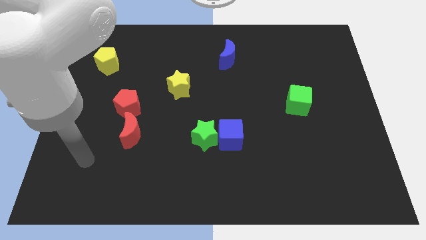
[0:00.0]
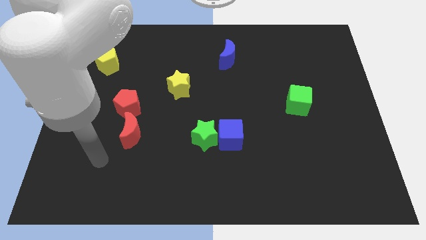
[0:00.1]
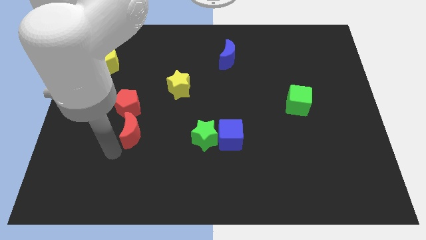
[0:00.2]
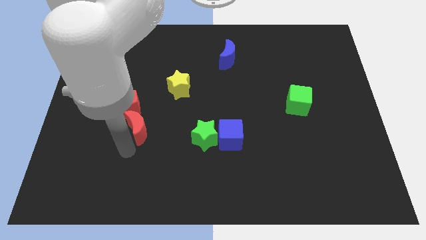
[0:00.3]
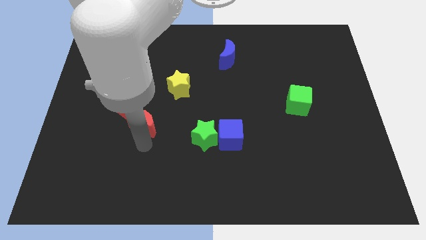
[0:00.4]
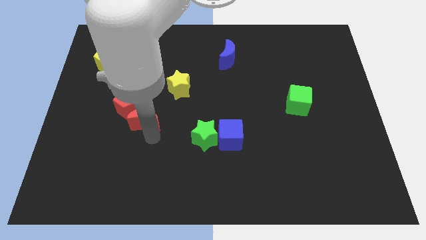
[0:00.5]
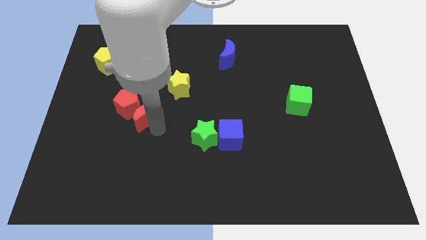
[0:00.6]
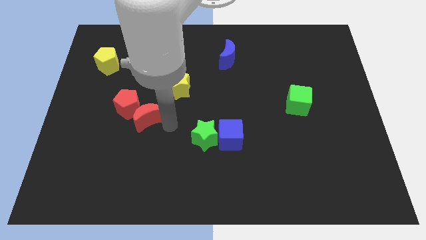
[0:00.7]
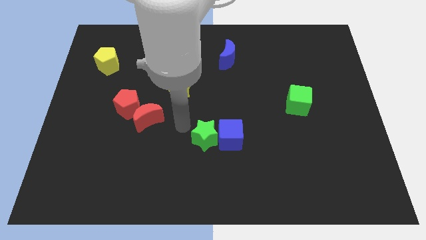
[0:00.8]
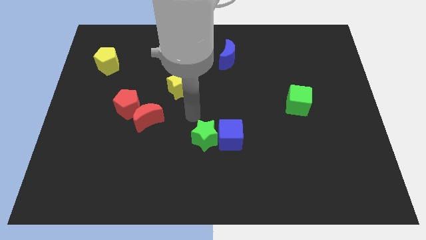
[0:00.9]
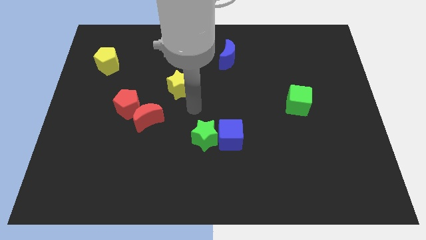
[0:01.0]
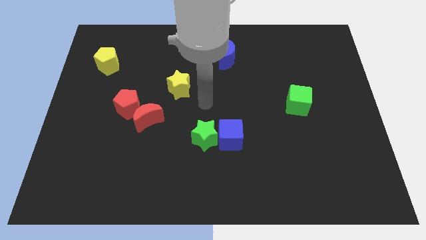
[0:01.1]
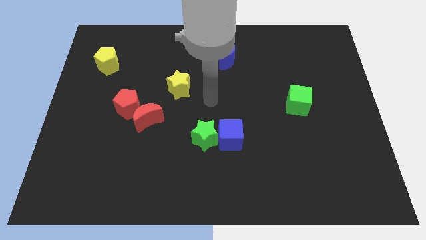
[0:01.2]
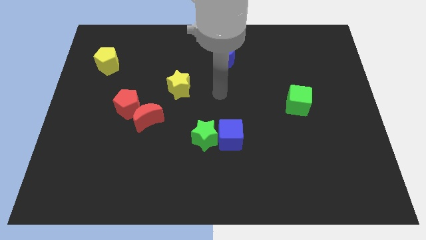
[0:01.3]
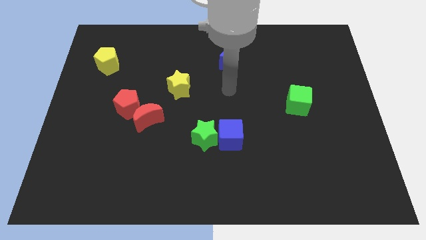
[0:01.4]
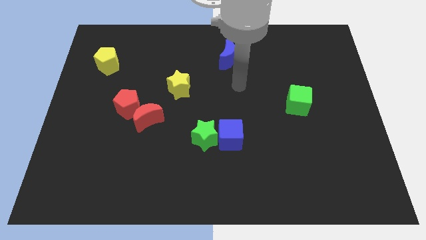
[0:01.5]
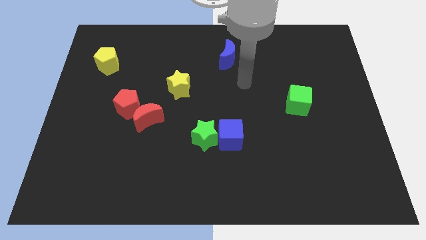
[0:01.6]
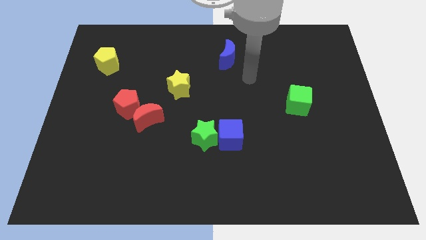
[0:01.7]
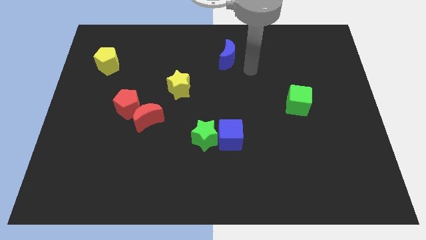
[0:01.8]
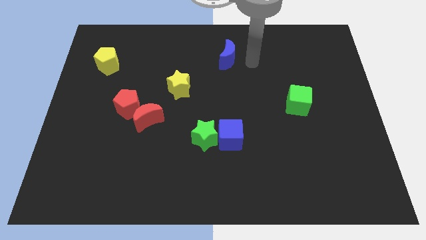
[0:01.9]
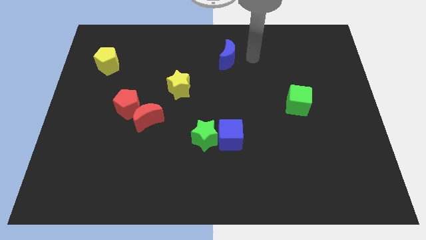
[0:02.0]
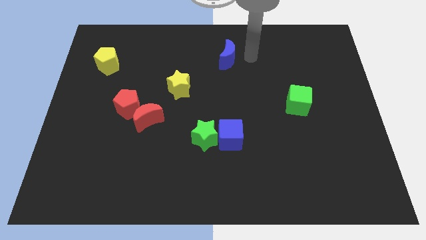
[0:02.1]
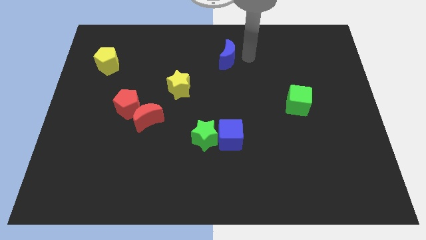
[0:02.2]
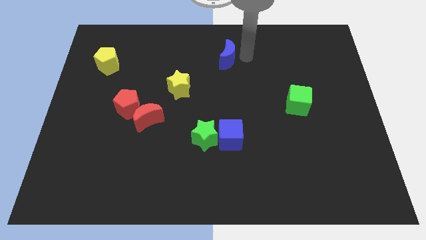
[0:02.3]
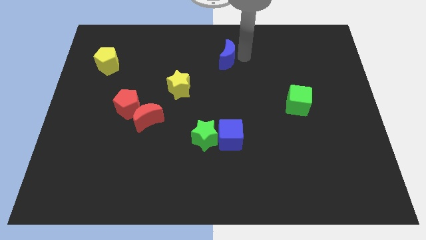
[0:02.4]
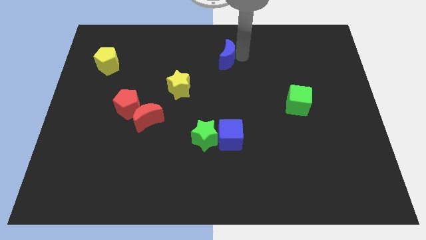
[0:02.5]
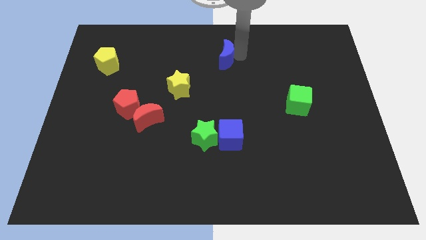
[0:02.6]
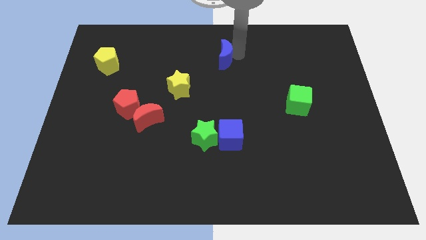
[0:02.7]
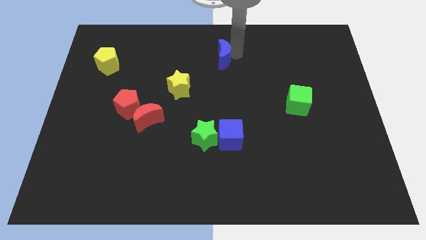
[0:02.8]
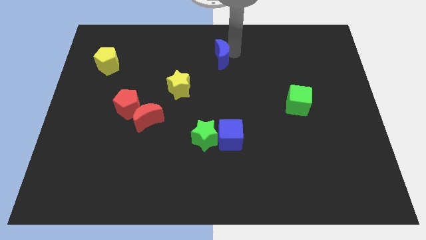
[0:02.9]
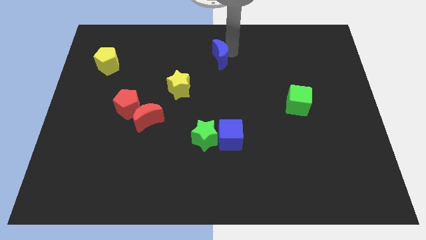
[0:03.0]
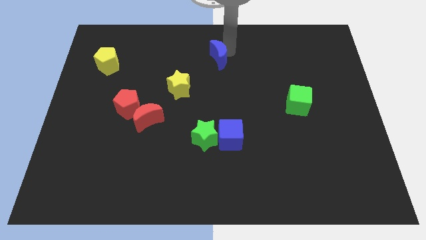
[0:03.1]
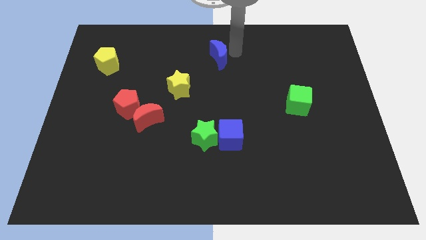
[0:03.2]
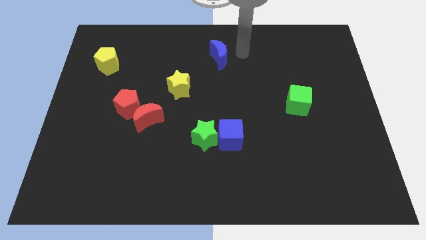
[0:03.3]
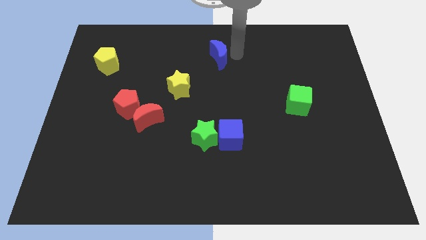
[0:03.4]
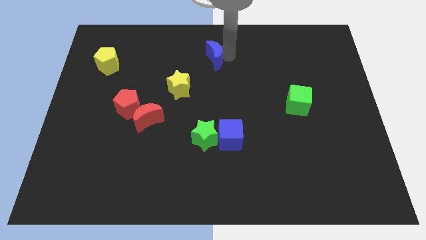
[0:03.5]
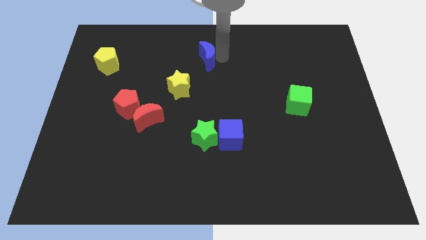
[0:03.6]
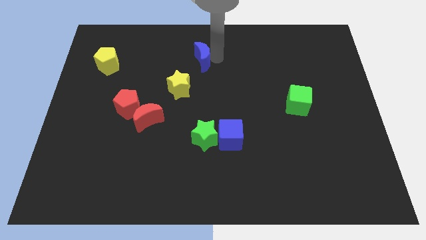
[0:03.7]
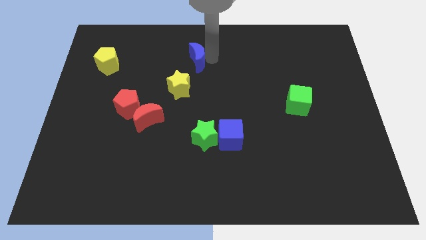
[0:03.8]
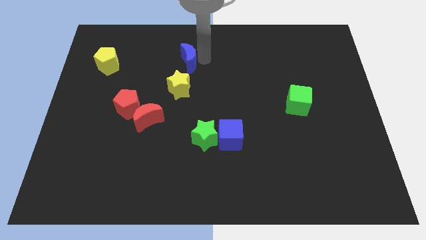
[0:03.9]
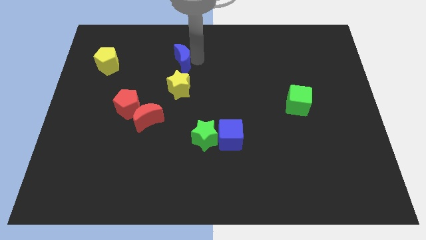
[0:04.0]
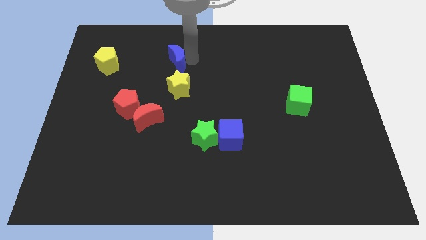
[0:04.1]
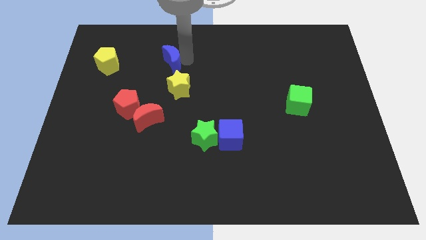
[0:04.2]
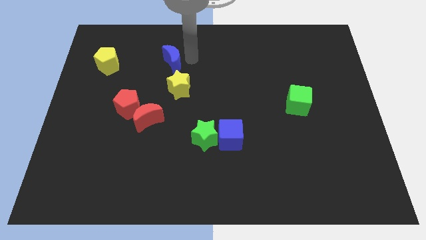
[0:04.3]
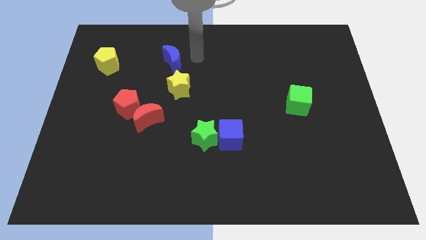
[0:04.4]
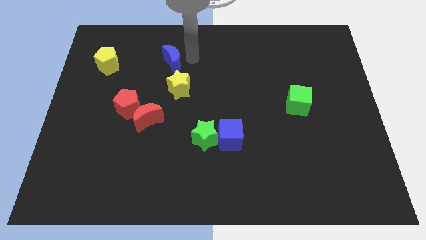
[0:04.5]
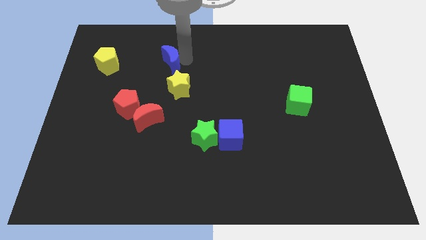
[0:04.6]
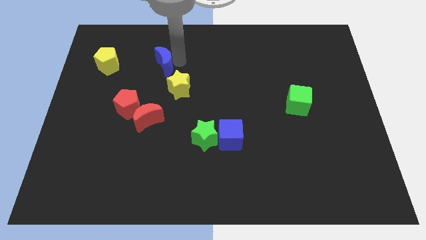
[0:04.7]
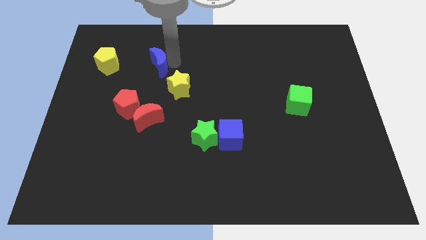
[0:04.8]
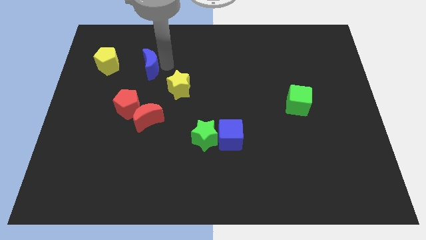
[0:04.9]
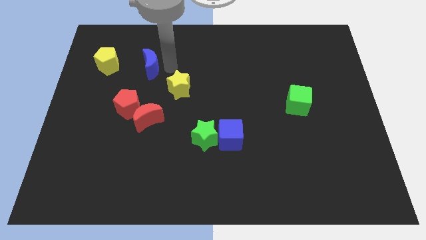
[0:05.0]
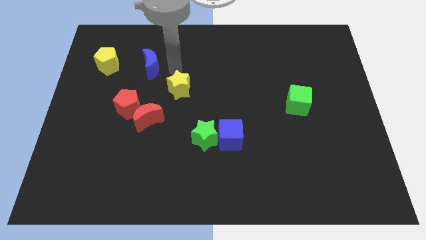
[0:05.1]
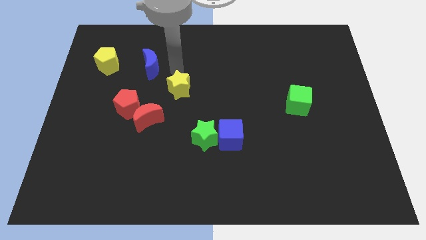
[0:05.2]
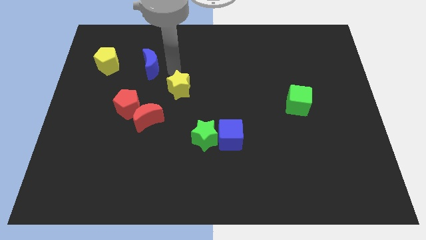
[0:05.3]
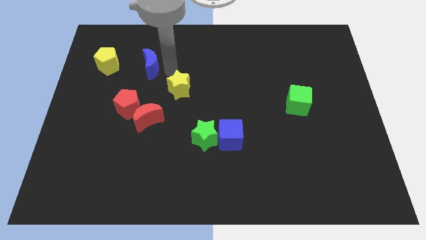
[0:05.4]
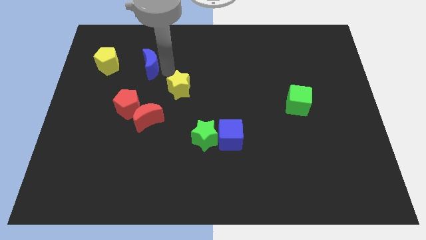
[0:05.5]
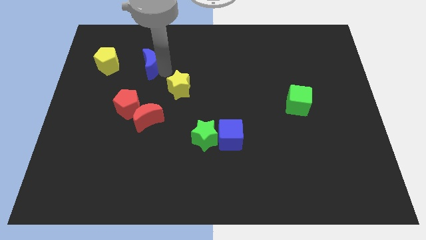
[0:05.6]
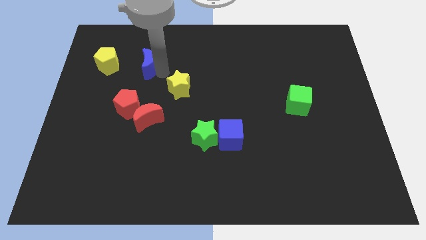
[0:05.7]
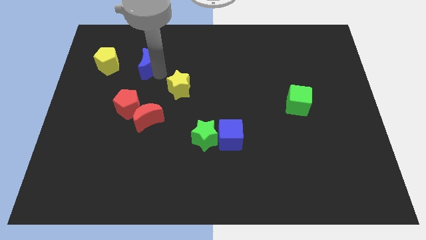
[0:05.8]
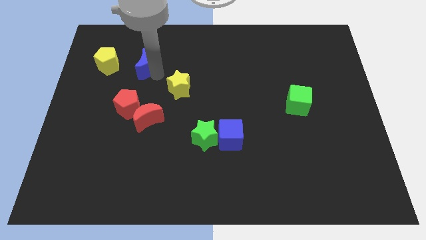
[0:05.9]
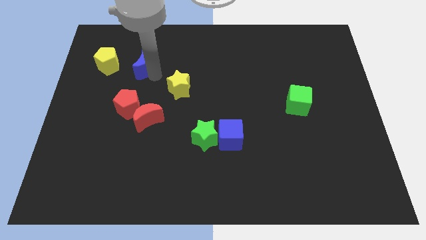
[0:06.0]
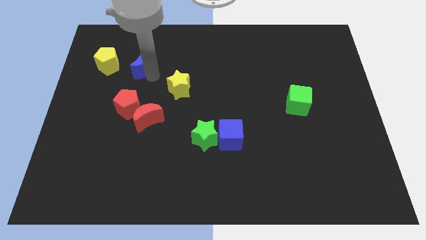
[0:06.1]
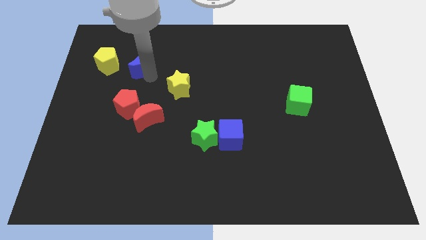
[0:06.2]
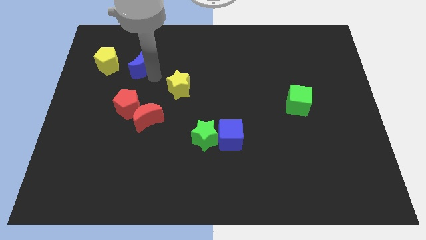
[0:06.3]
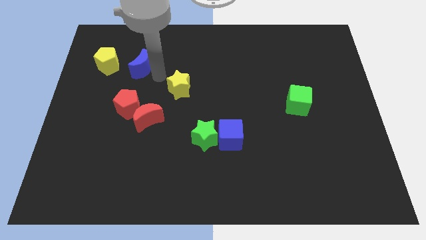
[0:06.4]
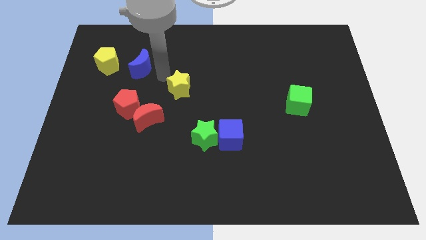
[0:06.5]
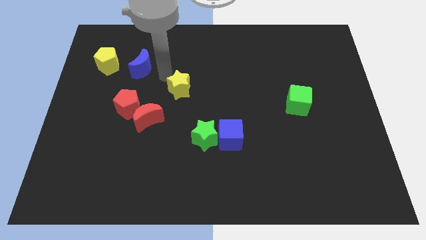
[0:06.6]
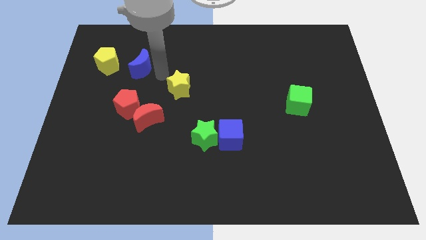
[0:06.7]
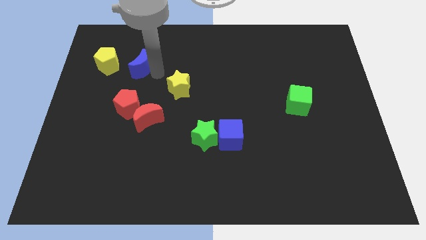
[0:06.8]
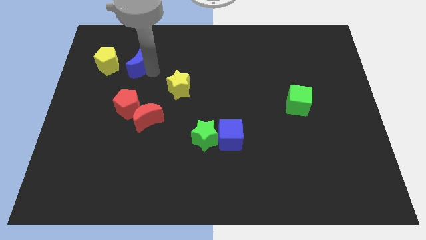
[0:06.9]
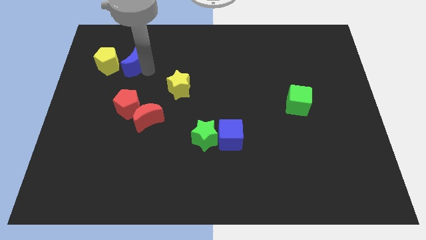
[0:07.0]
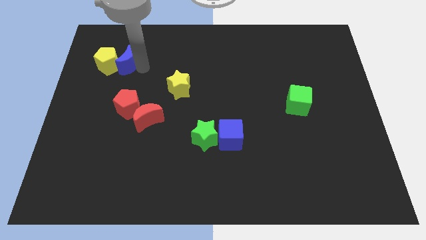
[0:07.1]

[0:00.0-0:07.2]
slide the blue moon to the yellow pentagon
